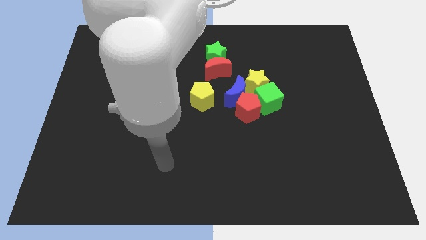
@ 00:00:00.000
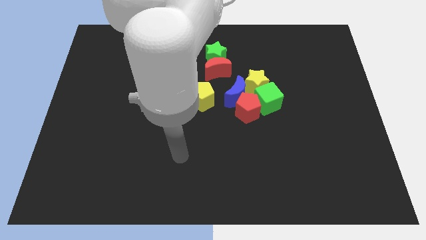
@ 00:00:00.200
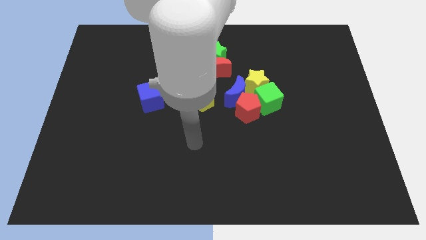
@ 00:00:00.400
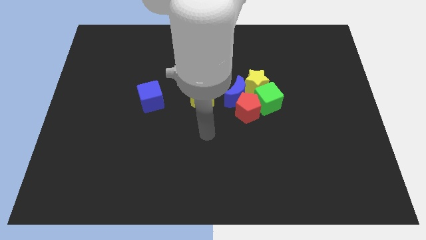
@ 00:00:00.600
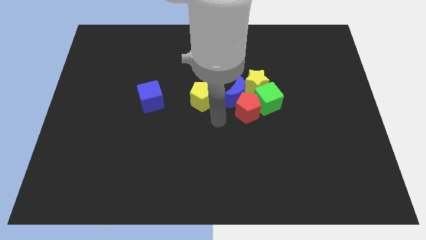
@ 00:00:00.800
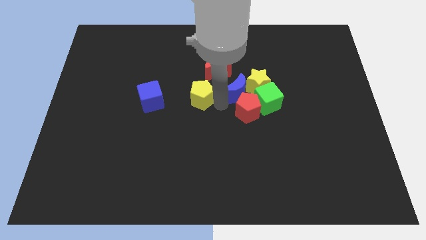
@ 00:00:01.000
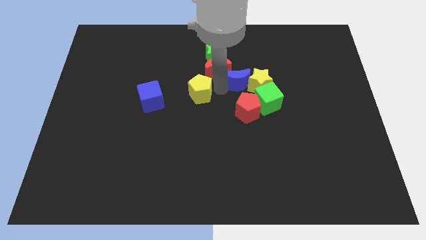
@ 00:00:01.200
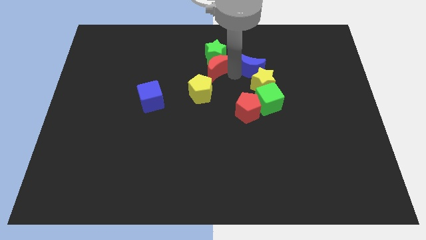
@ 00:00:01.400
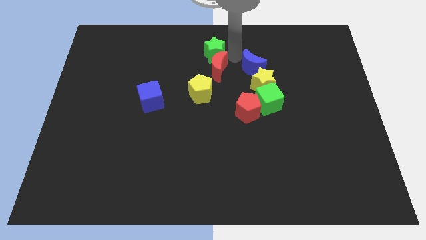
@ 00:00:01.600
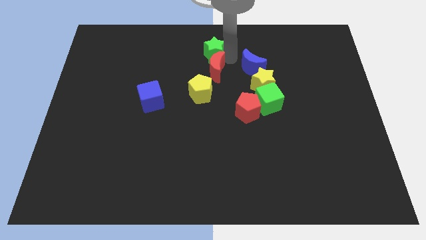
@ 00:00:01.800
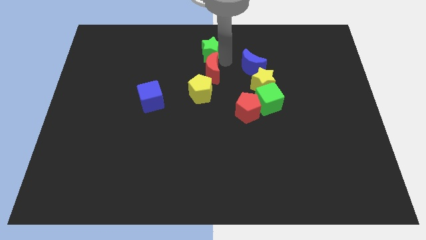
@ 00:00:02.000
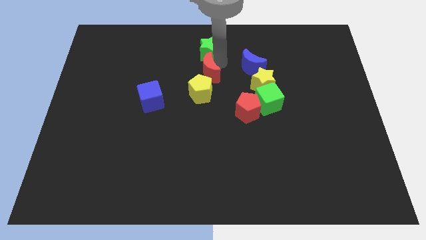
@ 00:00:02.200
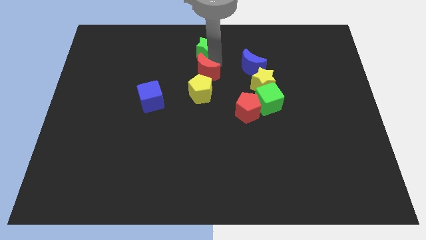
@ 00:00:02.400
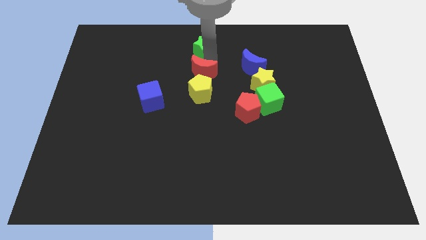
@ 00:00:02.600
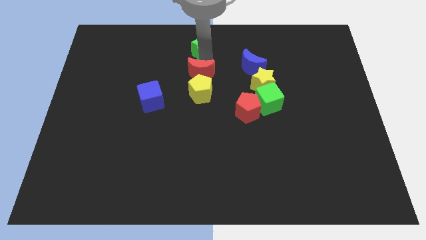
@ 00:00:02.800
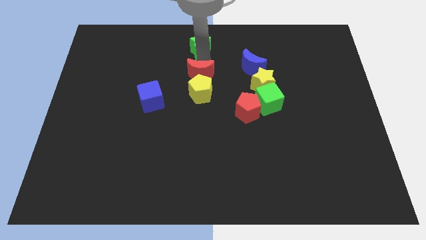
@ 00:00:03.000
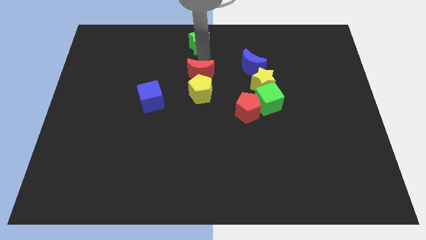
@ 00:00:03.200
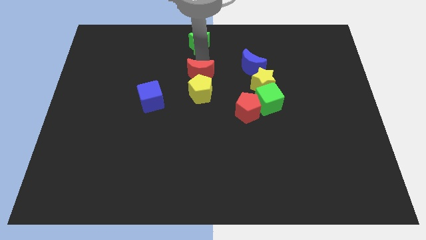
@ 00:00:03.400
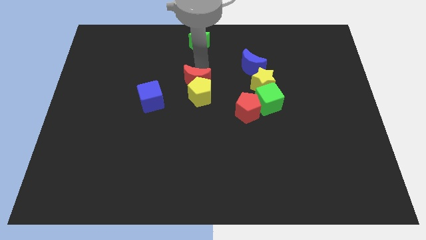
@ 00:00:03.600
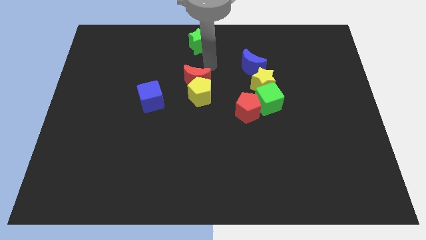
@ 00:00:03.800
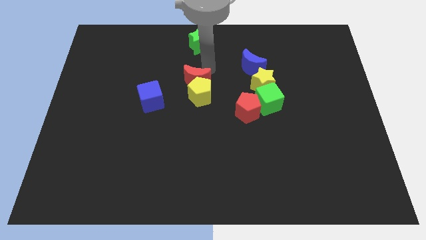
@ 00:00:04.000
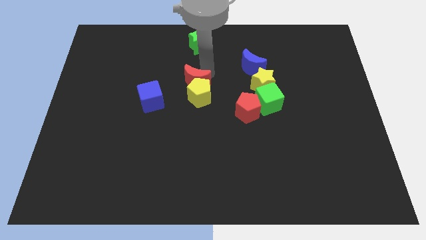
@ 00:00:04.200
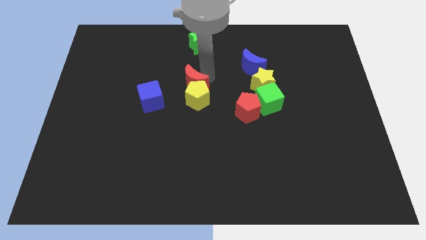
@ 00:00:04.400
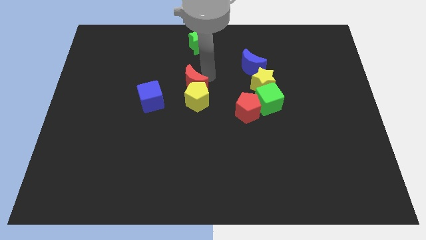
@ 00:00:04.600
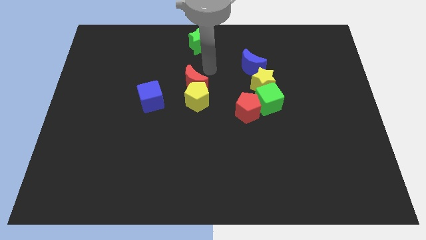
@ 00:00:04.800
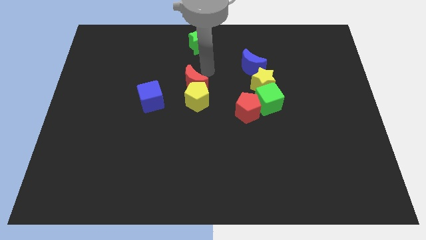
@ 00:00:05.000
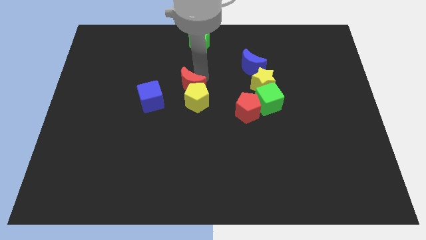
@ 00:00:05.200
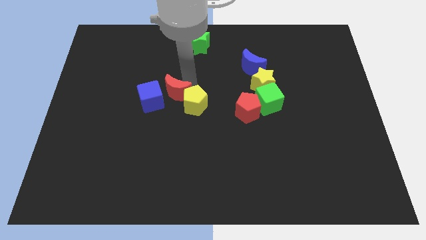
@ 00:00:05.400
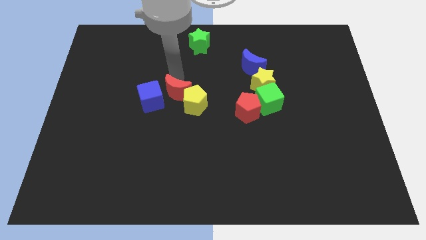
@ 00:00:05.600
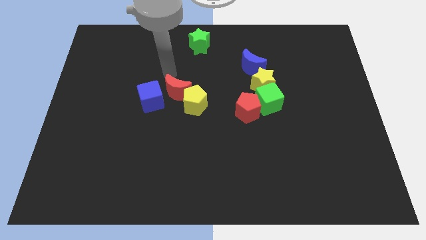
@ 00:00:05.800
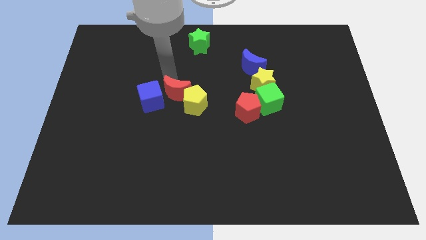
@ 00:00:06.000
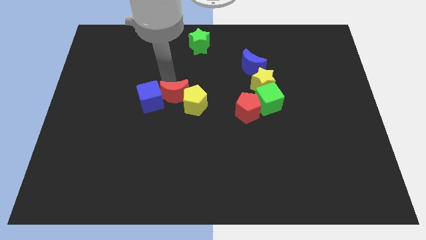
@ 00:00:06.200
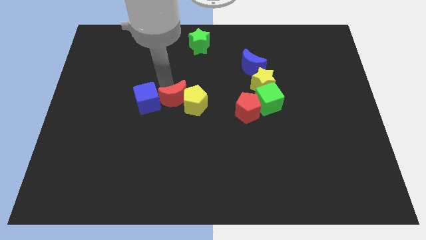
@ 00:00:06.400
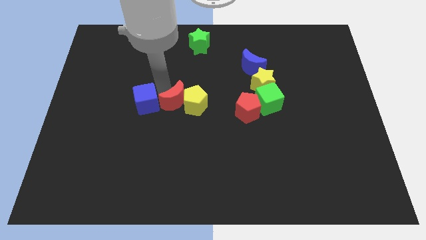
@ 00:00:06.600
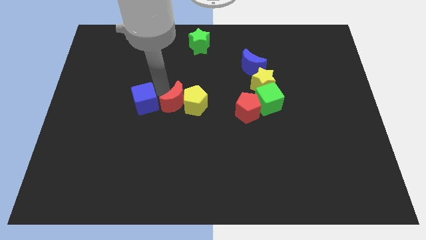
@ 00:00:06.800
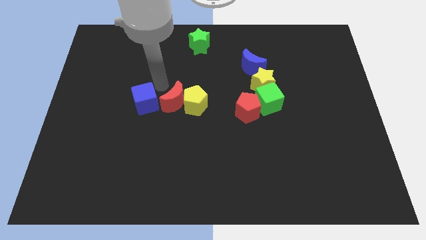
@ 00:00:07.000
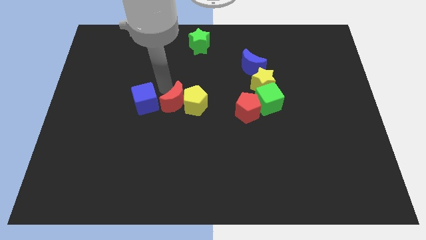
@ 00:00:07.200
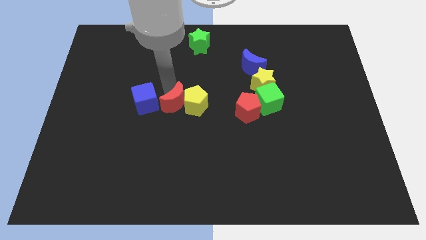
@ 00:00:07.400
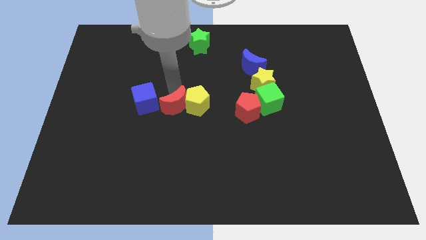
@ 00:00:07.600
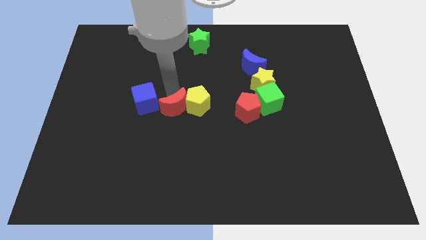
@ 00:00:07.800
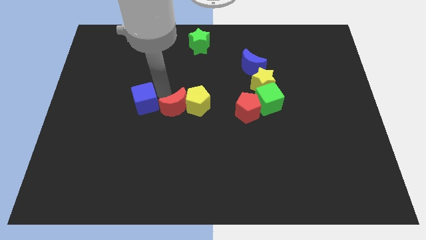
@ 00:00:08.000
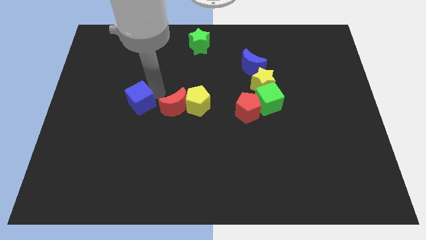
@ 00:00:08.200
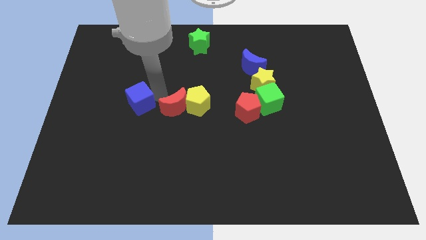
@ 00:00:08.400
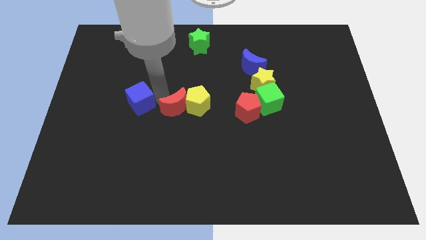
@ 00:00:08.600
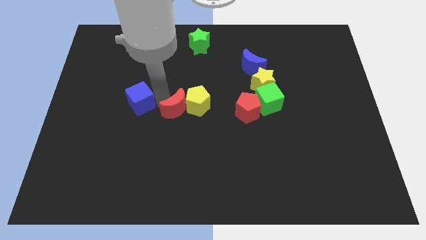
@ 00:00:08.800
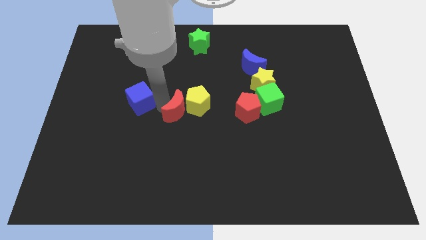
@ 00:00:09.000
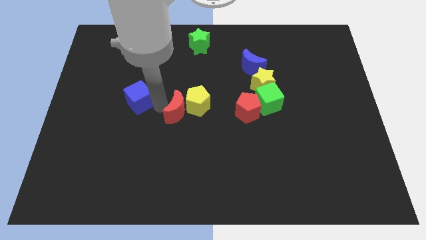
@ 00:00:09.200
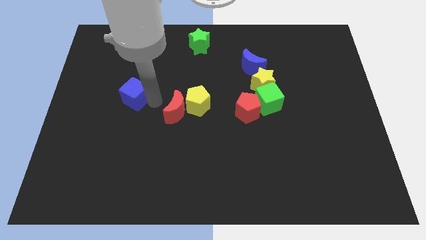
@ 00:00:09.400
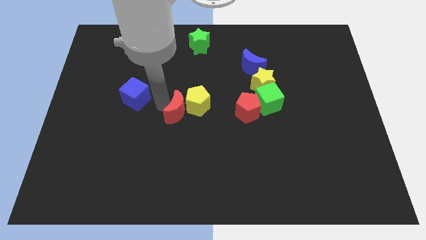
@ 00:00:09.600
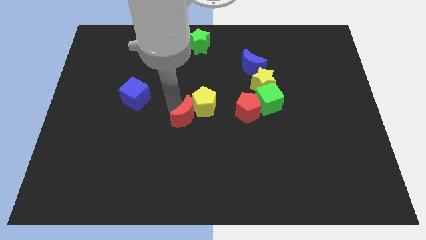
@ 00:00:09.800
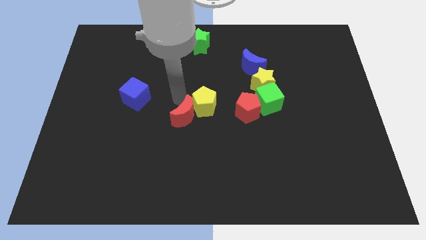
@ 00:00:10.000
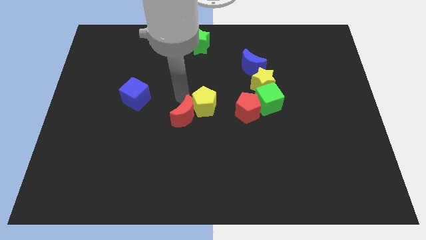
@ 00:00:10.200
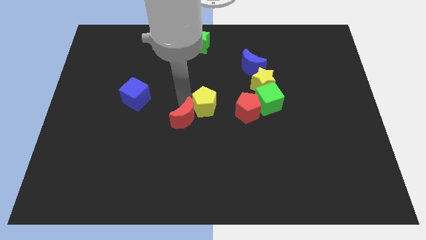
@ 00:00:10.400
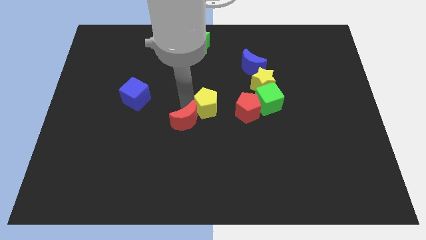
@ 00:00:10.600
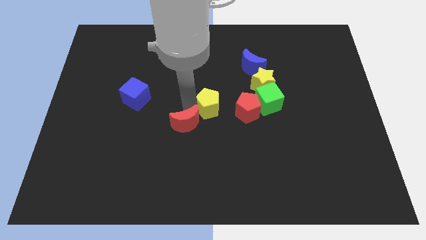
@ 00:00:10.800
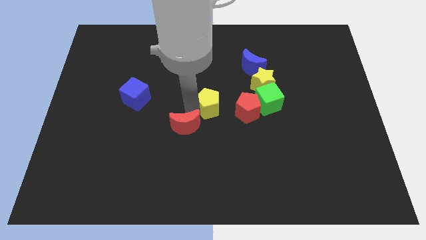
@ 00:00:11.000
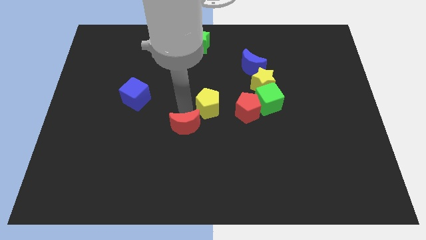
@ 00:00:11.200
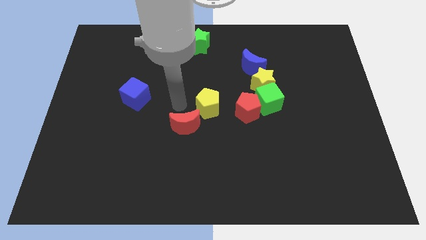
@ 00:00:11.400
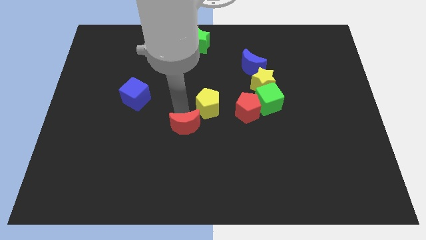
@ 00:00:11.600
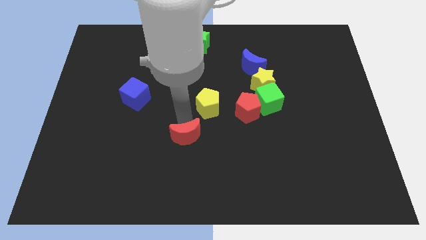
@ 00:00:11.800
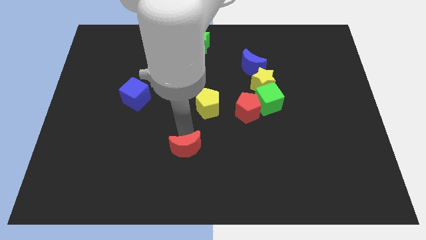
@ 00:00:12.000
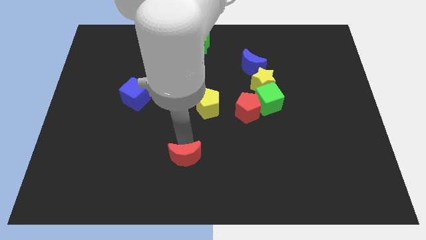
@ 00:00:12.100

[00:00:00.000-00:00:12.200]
put the red moon to the bottom

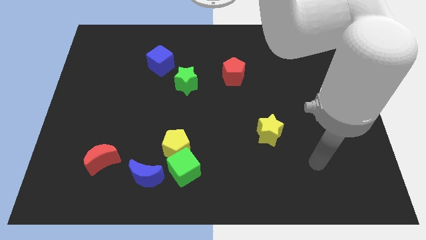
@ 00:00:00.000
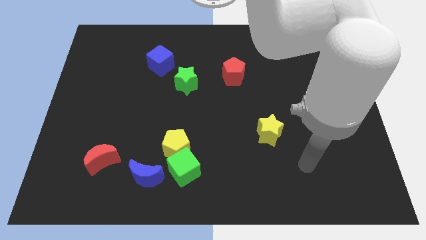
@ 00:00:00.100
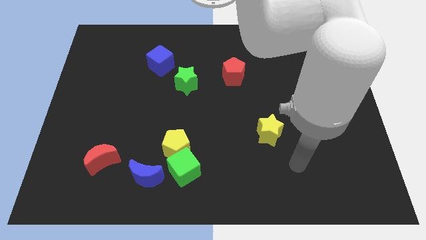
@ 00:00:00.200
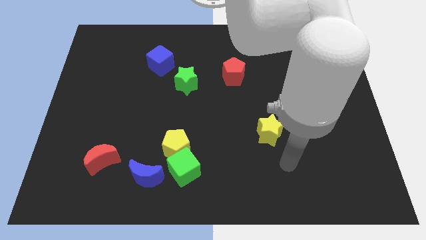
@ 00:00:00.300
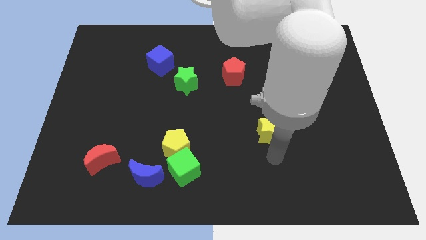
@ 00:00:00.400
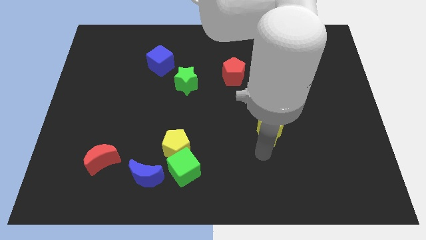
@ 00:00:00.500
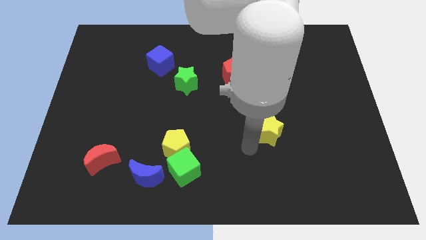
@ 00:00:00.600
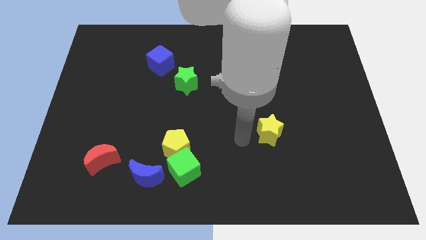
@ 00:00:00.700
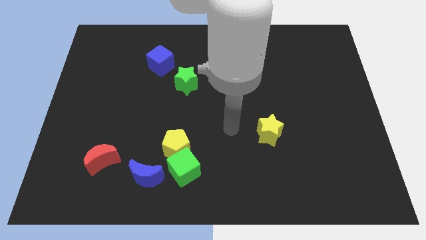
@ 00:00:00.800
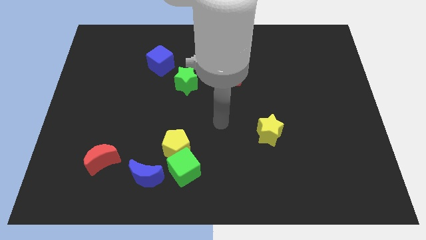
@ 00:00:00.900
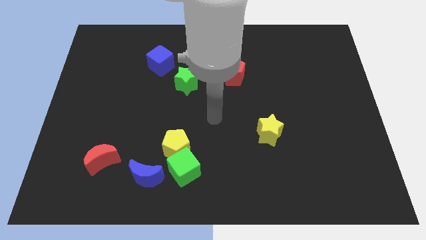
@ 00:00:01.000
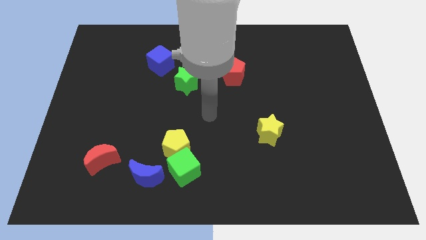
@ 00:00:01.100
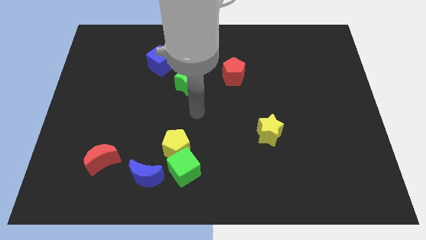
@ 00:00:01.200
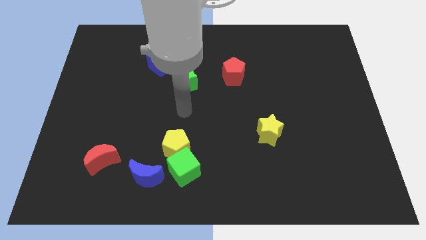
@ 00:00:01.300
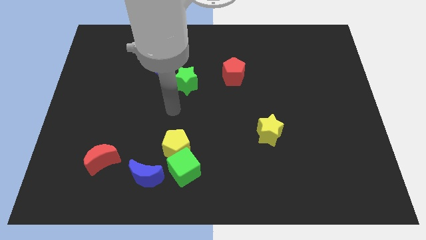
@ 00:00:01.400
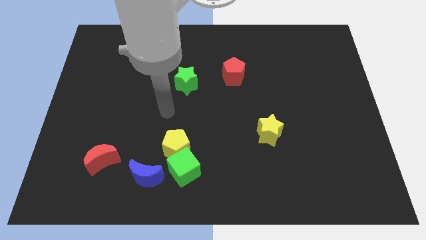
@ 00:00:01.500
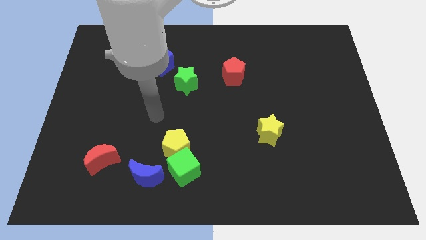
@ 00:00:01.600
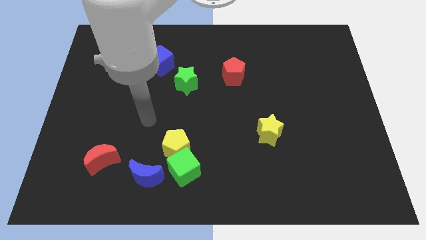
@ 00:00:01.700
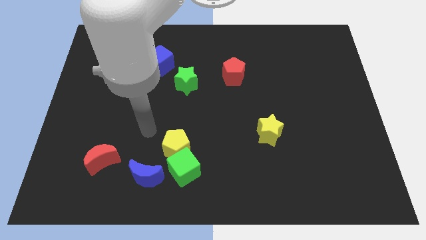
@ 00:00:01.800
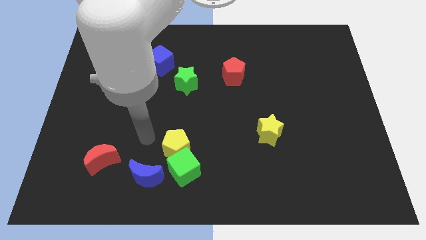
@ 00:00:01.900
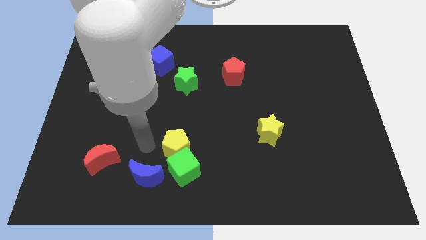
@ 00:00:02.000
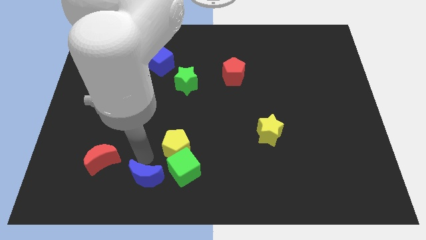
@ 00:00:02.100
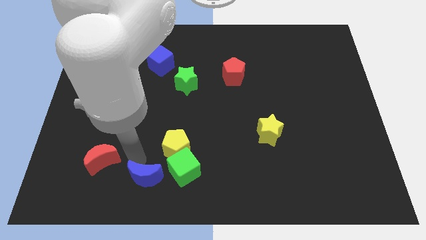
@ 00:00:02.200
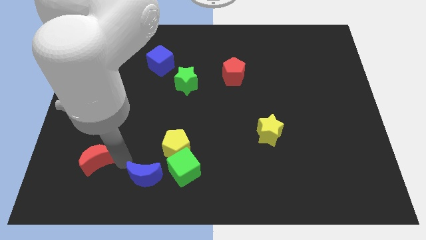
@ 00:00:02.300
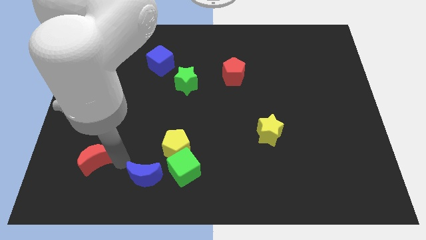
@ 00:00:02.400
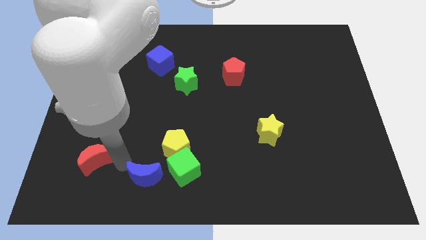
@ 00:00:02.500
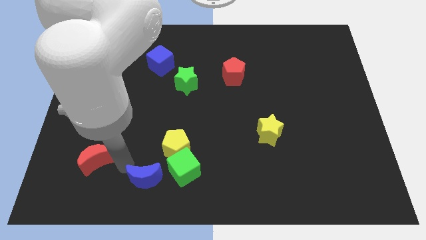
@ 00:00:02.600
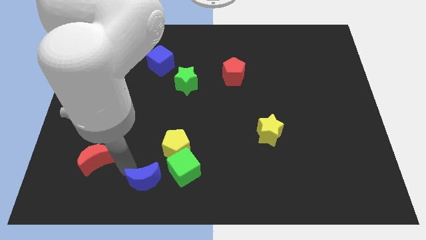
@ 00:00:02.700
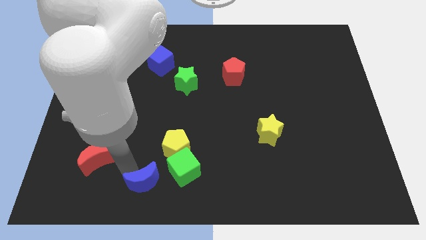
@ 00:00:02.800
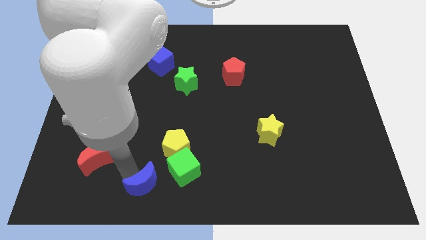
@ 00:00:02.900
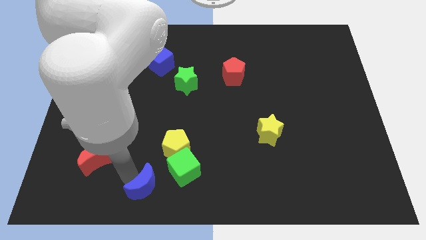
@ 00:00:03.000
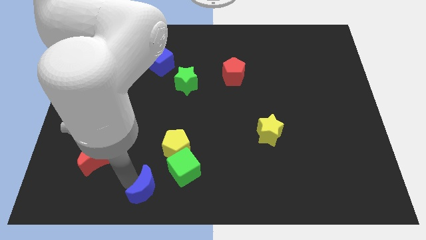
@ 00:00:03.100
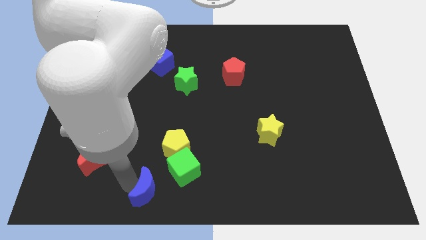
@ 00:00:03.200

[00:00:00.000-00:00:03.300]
put the blue moon to the bottom side
